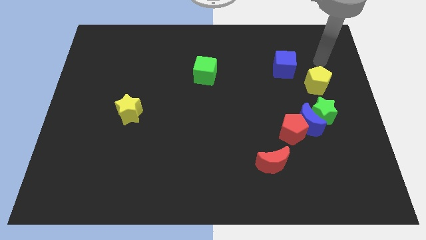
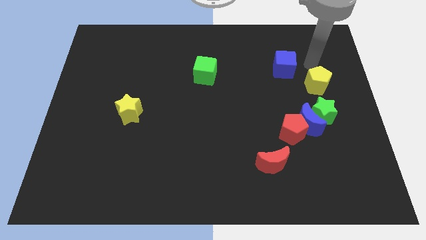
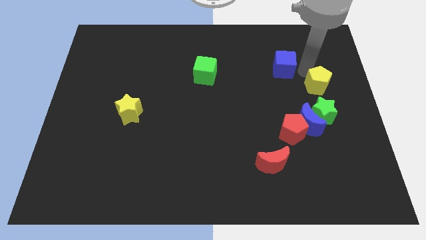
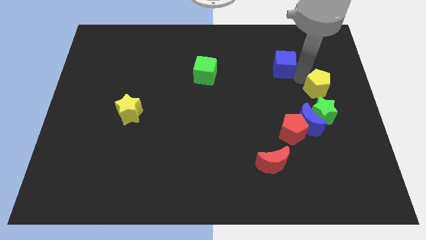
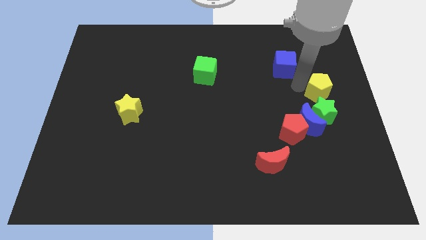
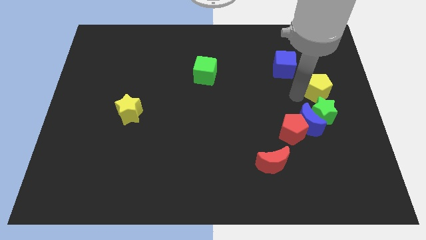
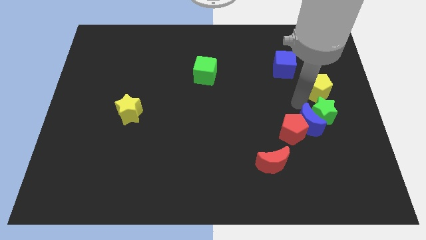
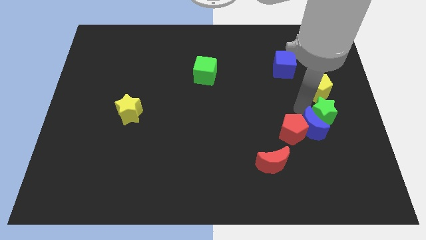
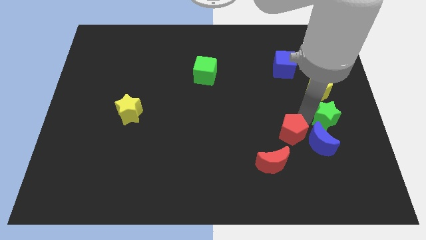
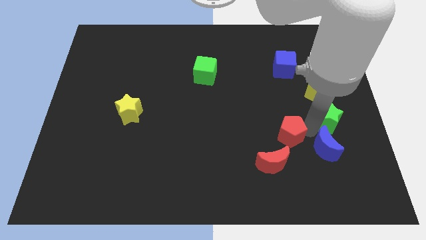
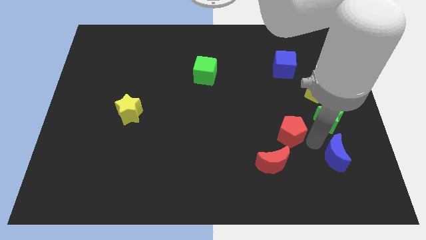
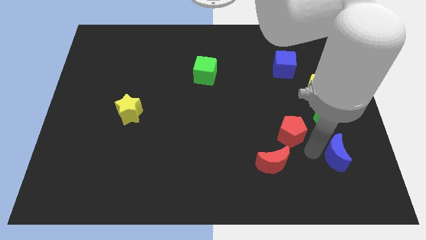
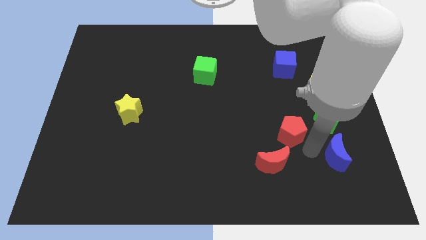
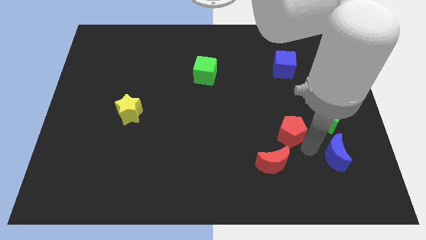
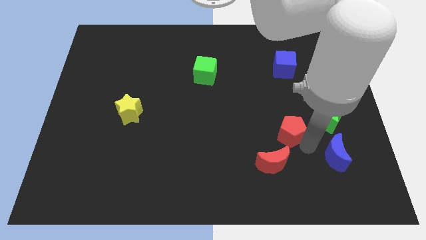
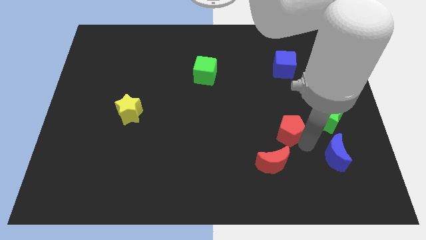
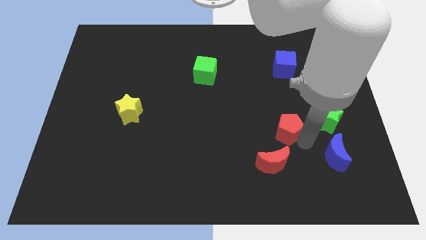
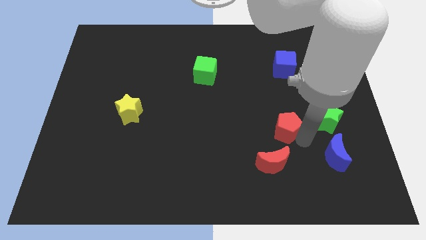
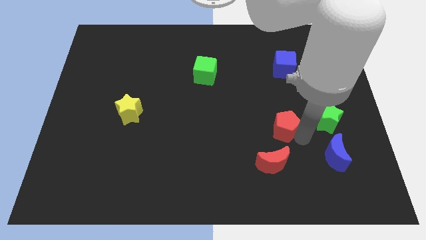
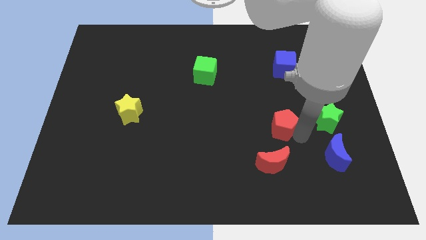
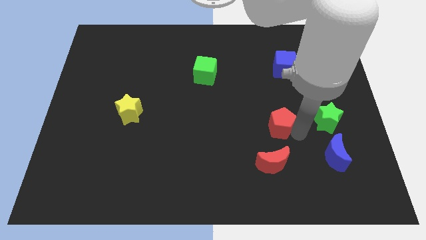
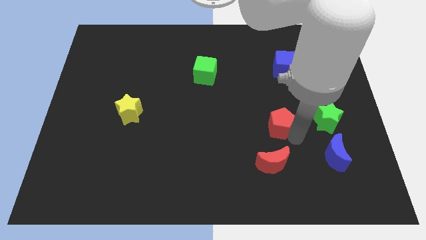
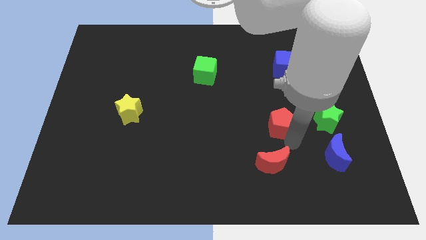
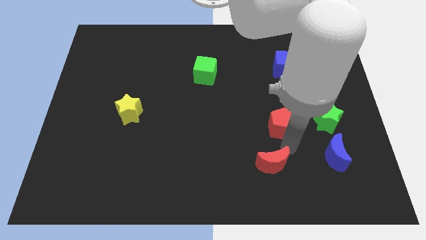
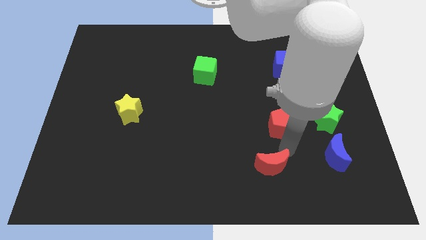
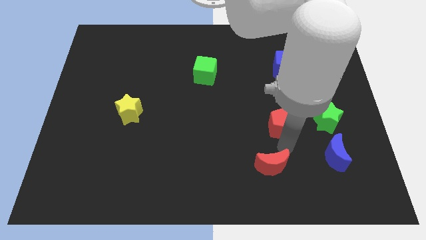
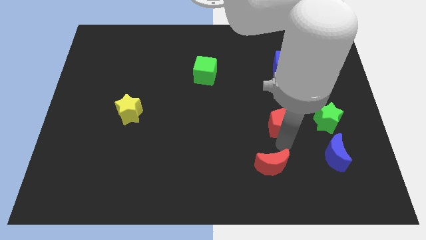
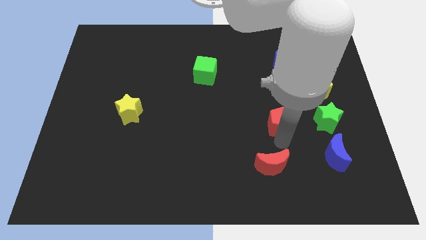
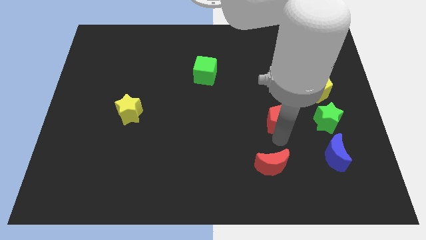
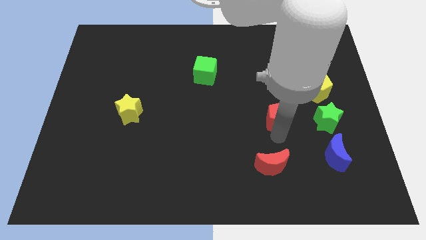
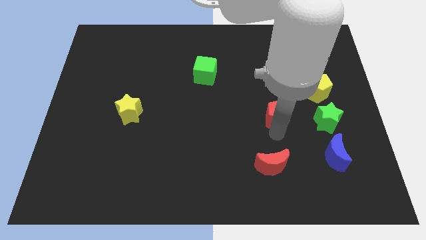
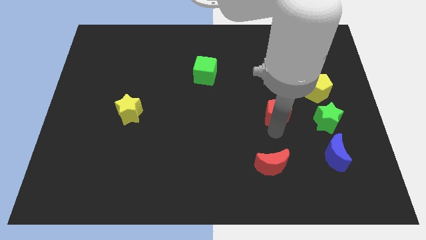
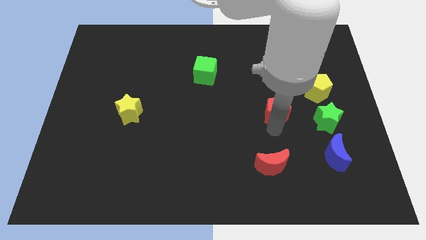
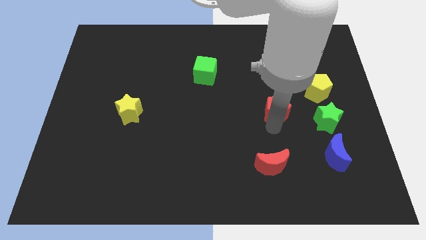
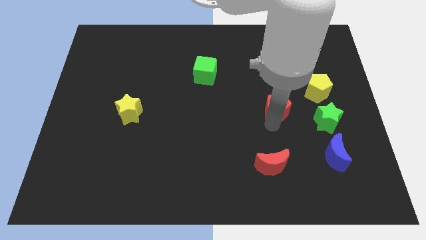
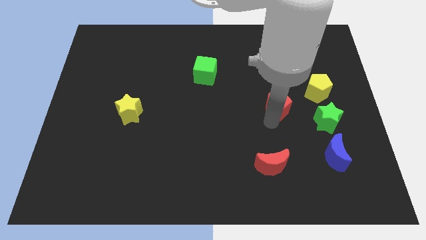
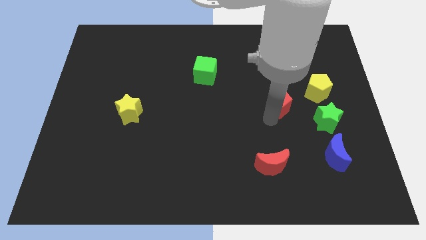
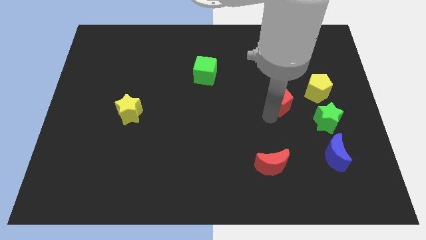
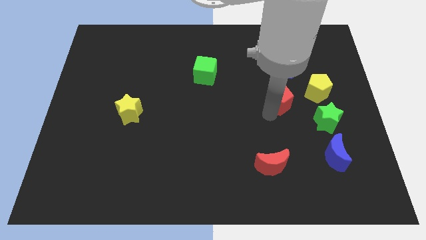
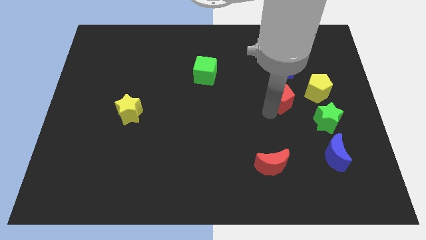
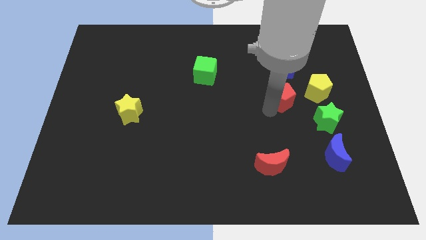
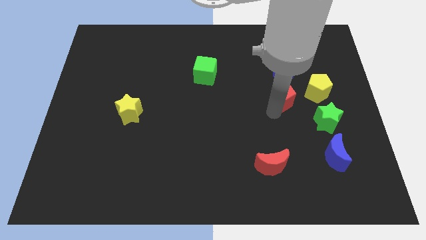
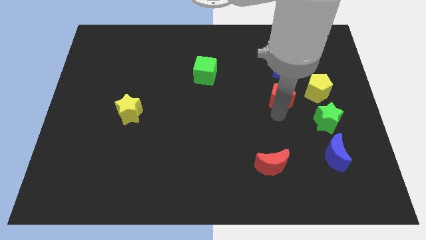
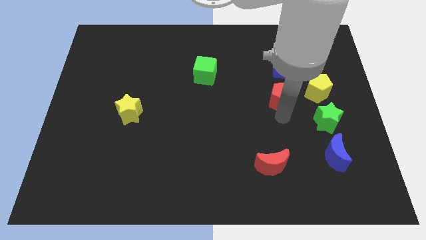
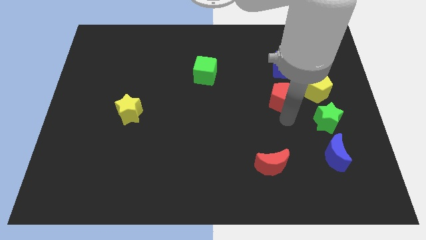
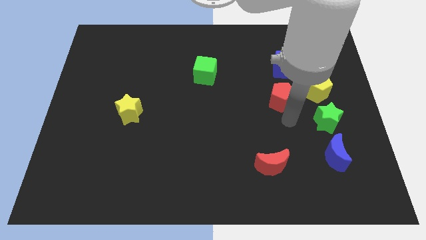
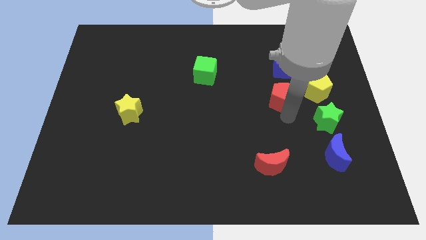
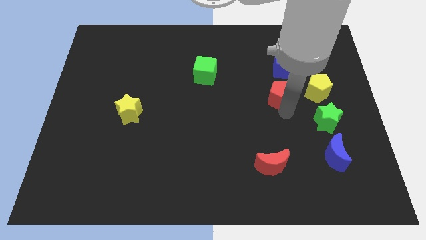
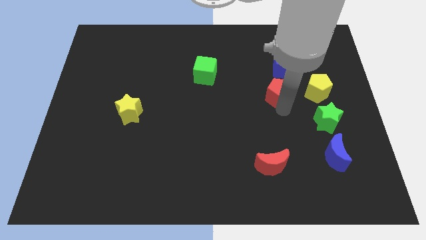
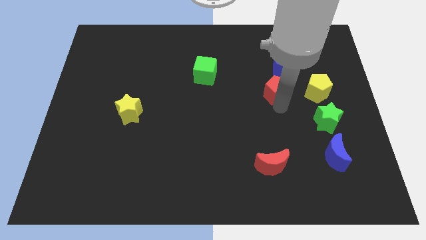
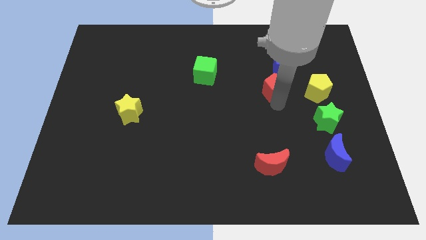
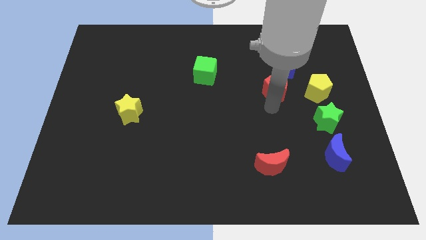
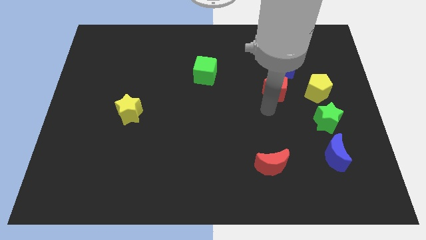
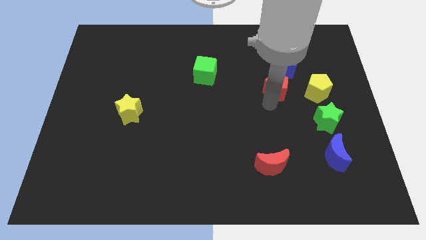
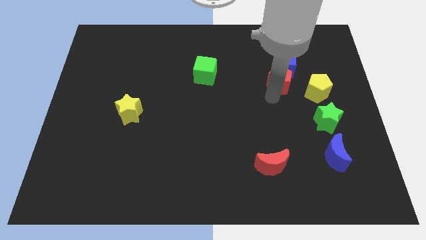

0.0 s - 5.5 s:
slide the red pentagon to the blue cube

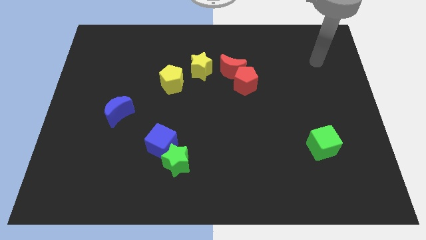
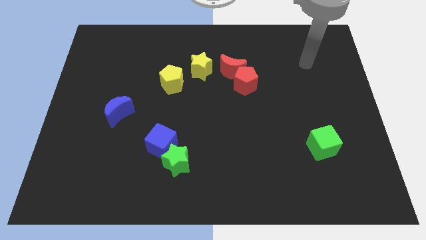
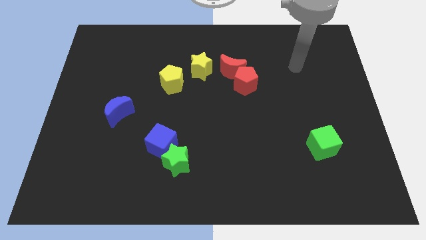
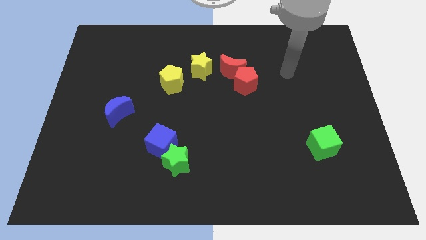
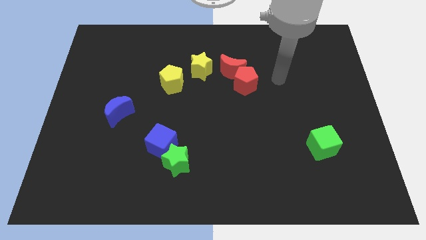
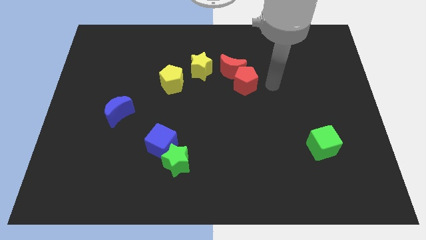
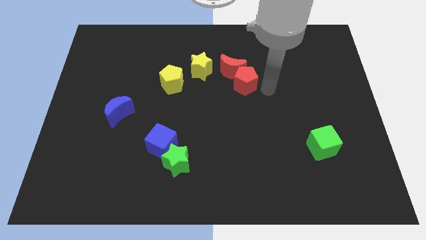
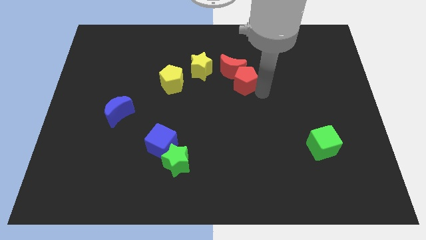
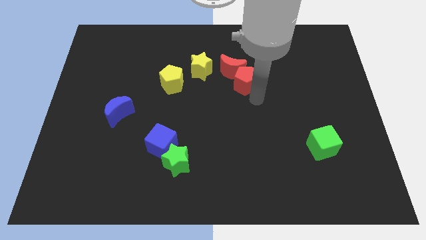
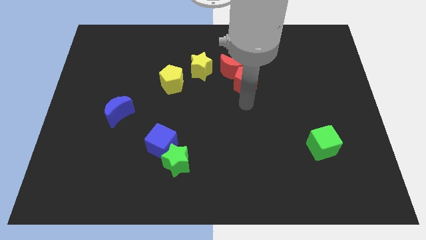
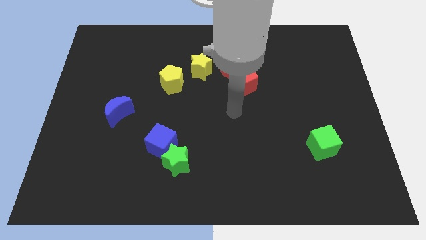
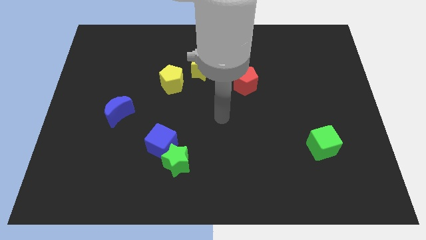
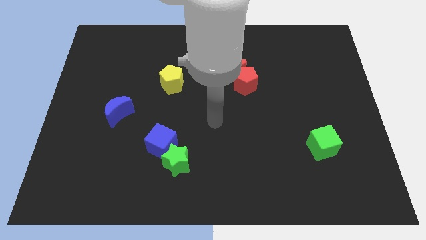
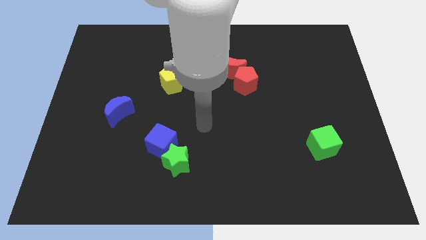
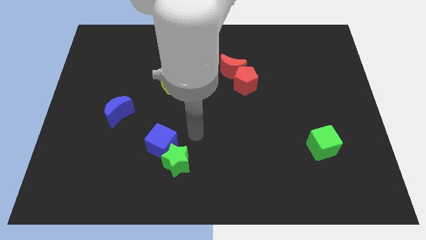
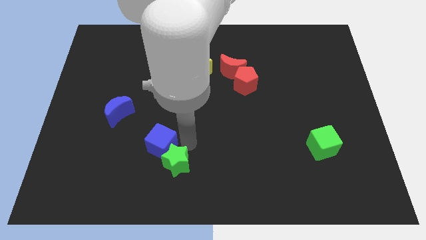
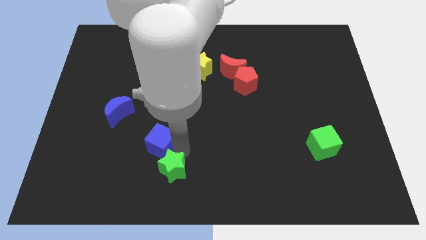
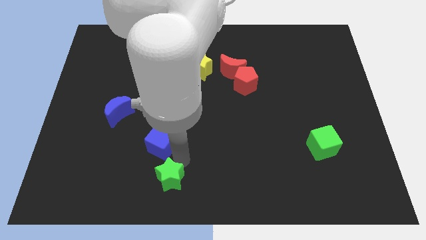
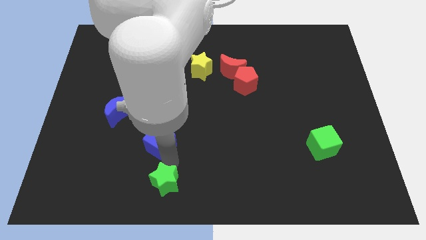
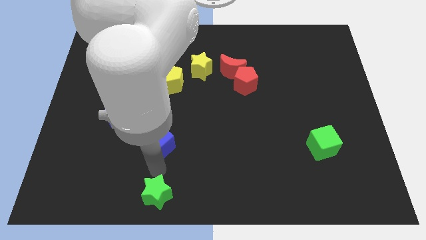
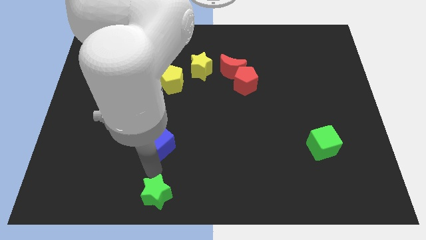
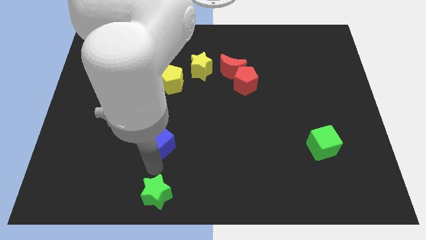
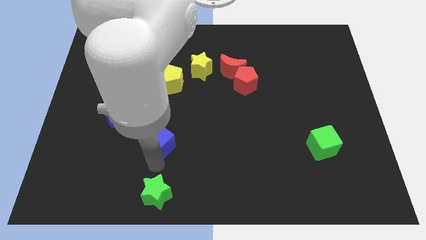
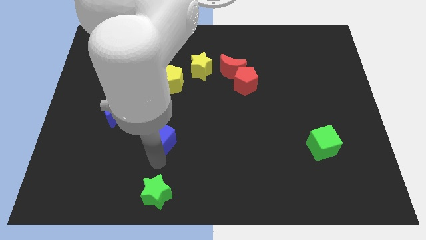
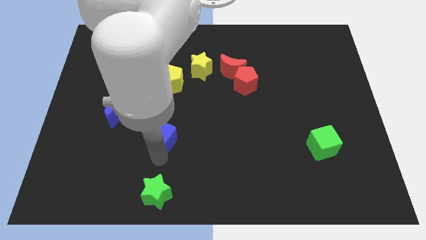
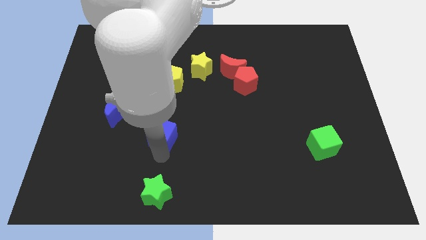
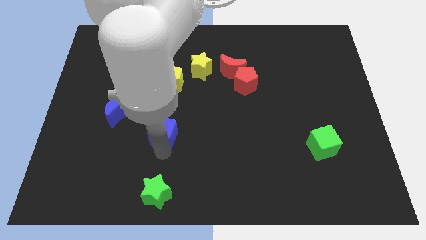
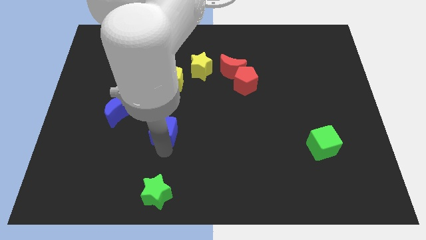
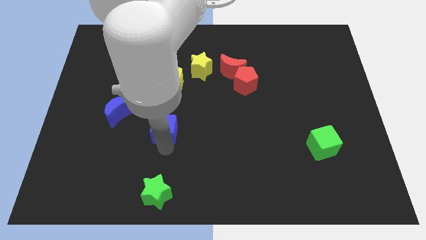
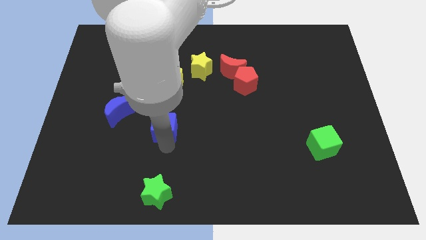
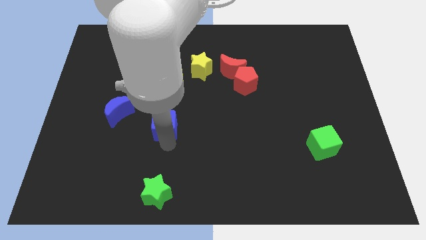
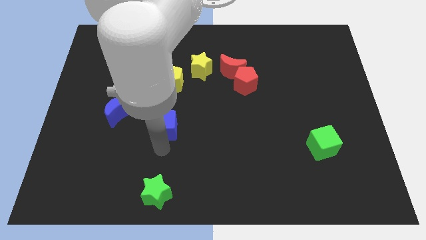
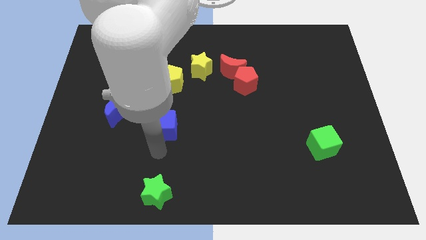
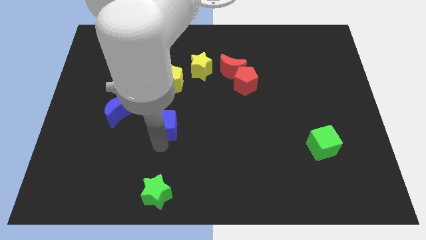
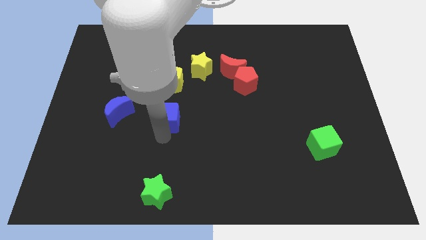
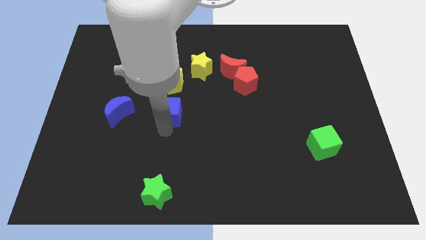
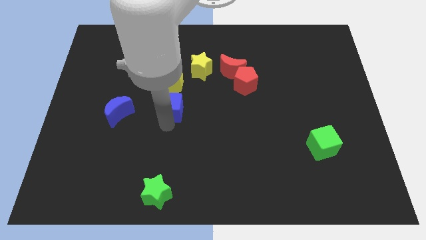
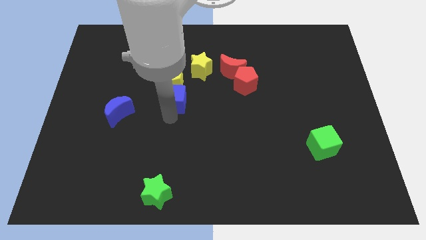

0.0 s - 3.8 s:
put the blue cube towards the yellow pentagon
